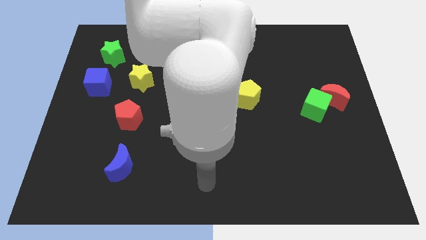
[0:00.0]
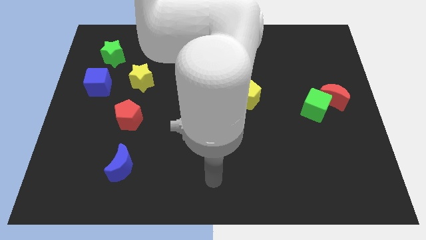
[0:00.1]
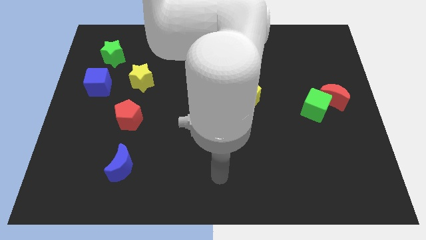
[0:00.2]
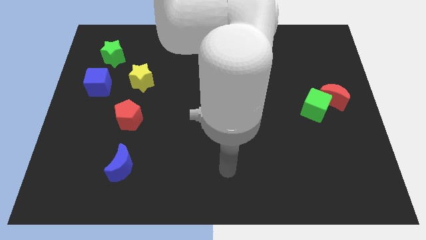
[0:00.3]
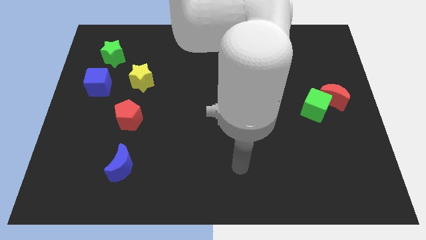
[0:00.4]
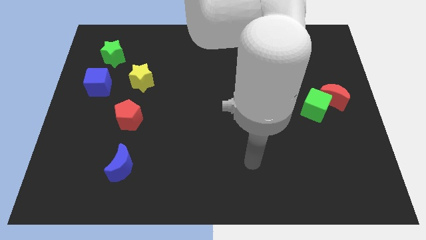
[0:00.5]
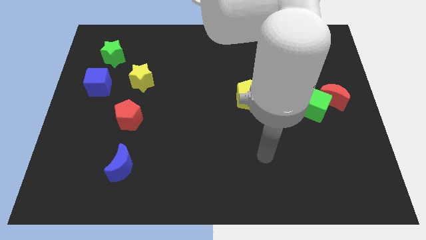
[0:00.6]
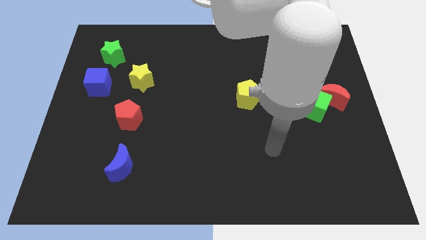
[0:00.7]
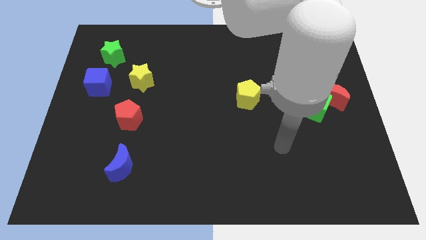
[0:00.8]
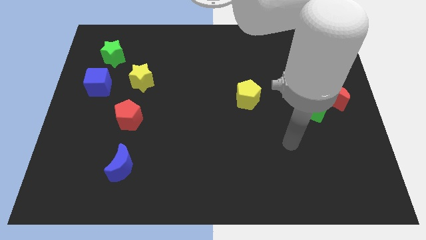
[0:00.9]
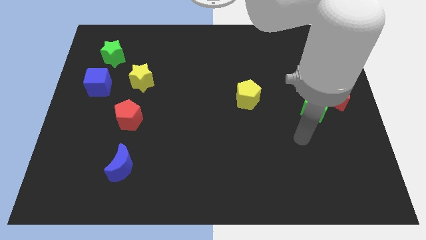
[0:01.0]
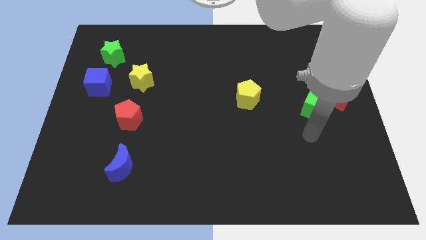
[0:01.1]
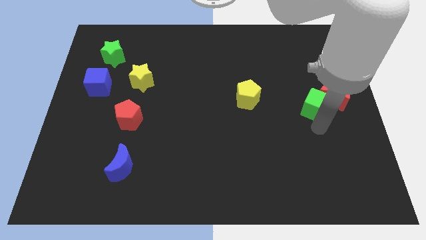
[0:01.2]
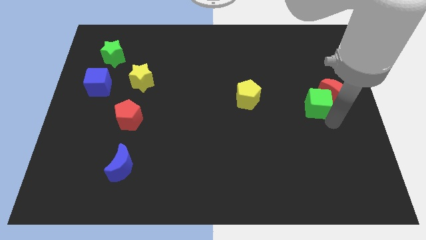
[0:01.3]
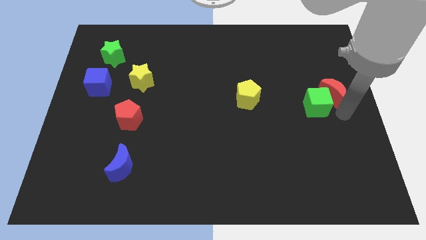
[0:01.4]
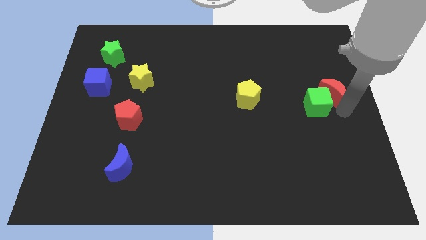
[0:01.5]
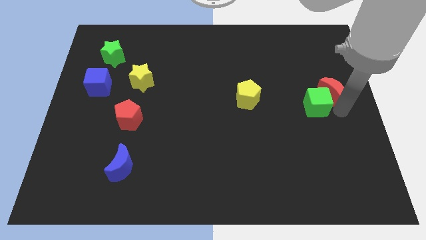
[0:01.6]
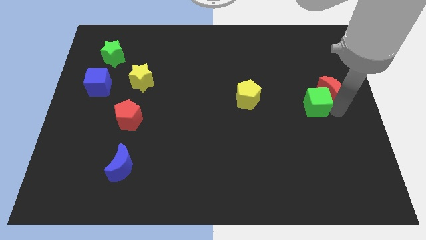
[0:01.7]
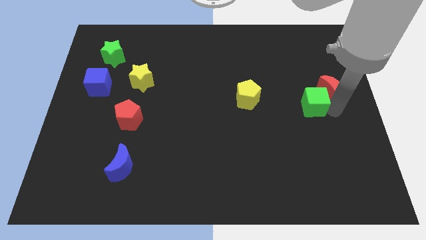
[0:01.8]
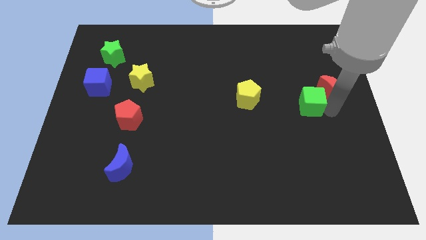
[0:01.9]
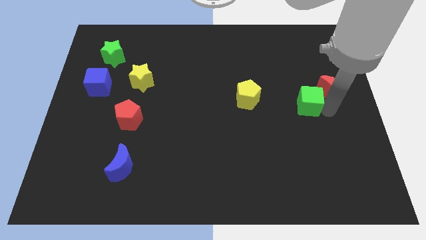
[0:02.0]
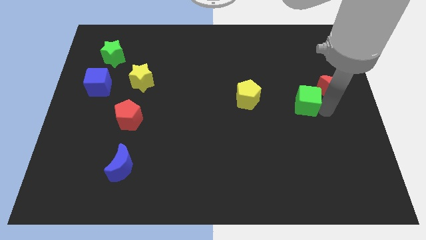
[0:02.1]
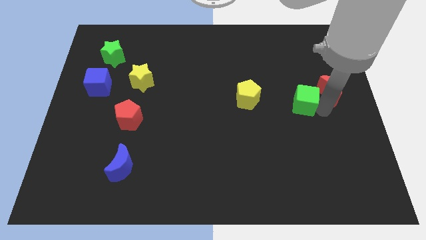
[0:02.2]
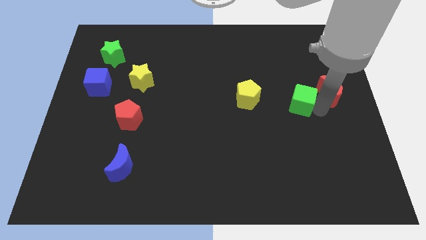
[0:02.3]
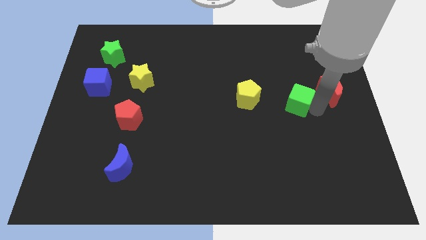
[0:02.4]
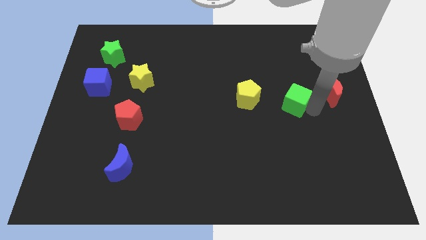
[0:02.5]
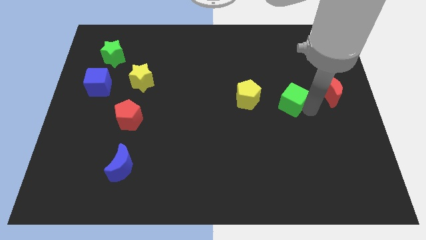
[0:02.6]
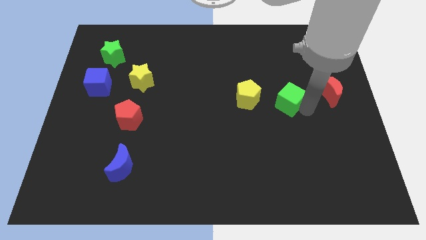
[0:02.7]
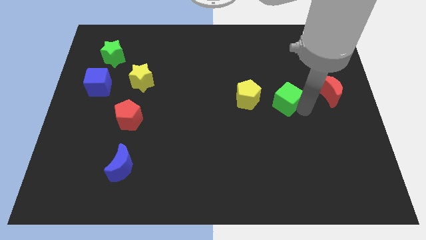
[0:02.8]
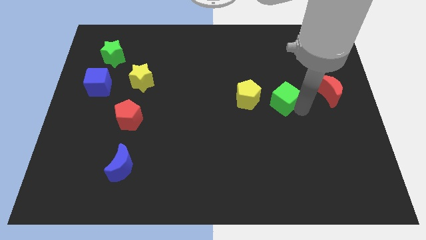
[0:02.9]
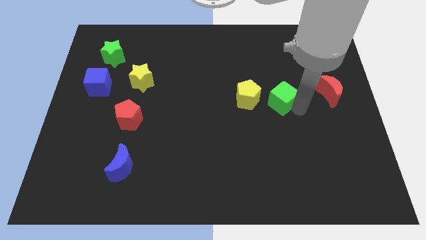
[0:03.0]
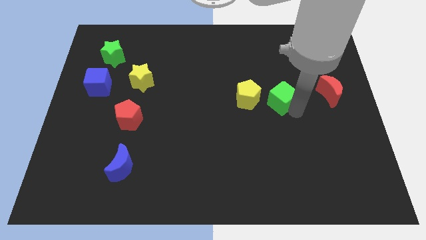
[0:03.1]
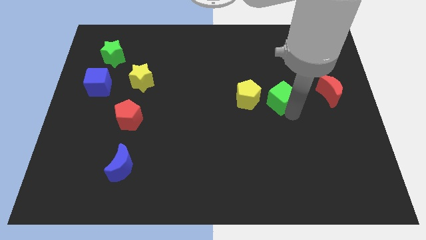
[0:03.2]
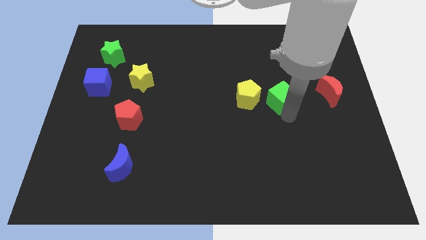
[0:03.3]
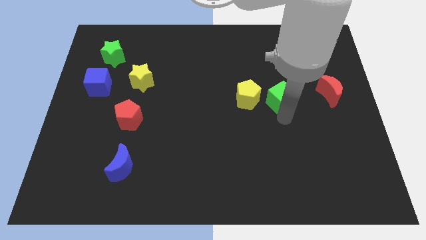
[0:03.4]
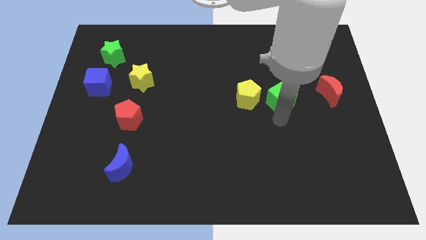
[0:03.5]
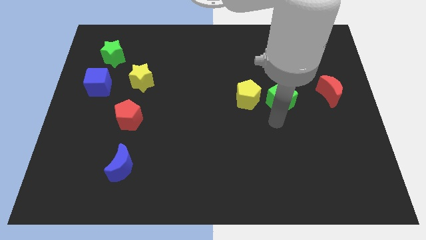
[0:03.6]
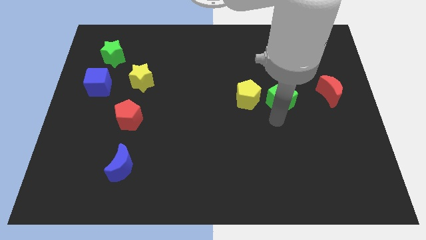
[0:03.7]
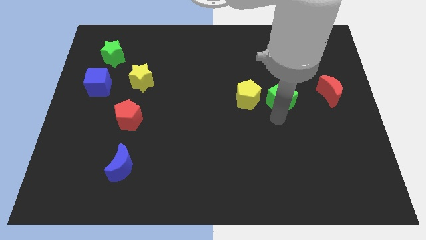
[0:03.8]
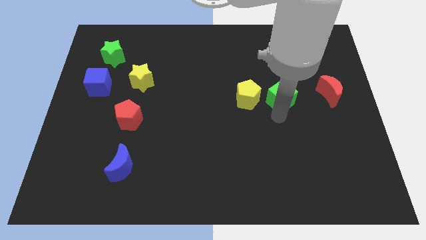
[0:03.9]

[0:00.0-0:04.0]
slightly move the green cube upwards and left

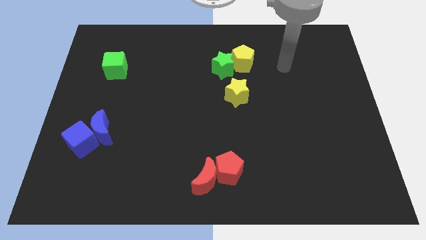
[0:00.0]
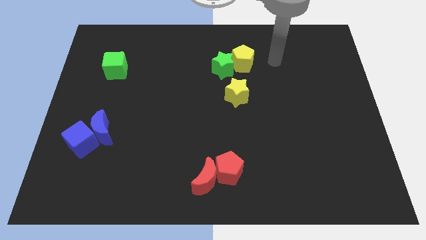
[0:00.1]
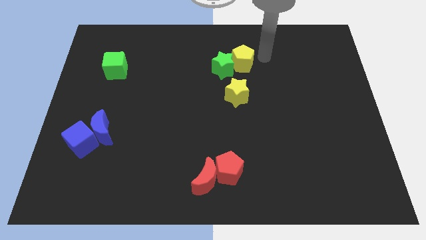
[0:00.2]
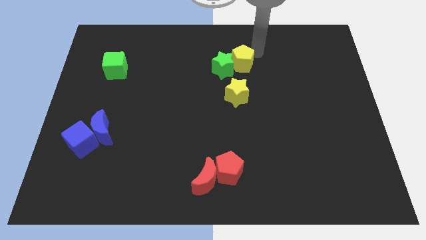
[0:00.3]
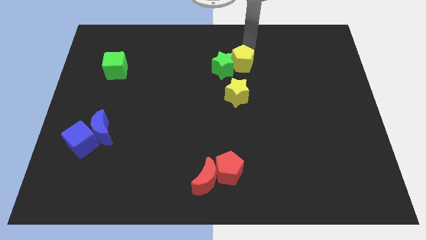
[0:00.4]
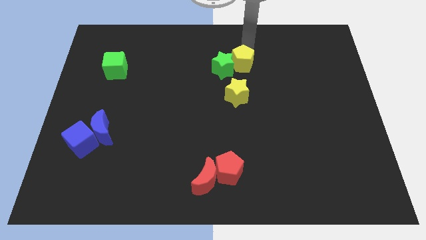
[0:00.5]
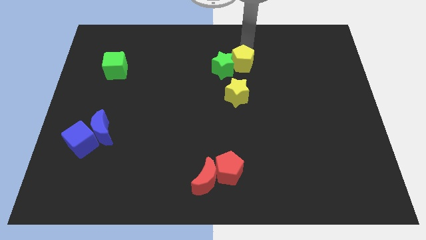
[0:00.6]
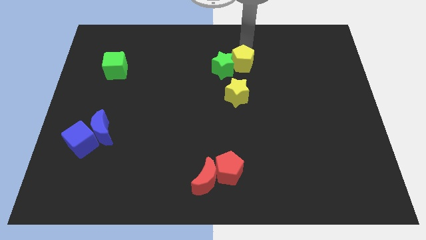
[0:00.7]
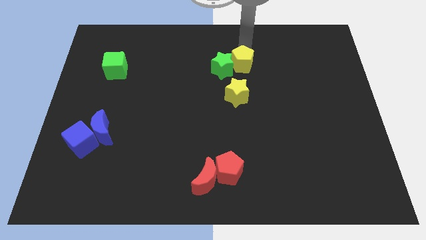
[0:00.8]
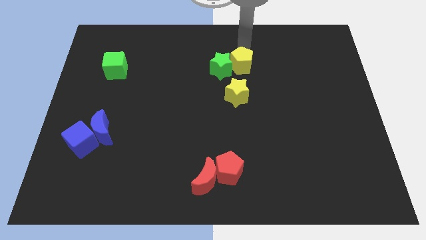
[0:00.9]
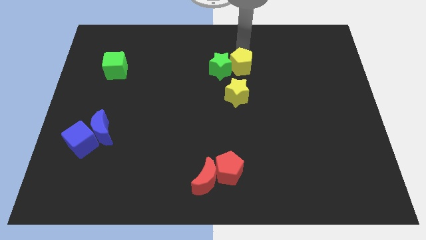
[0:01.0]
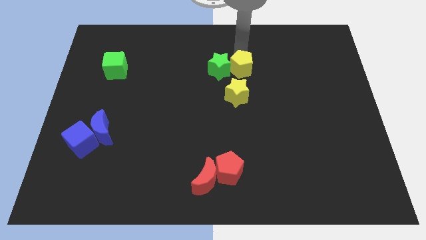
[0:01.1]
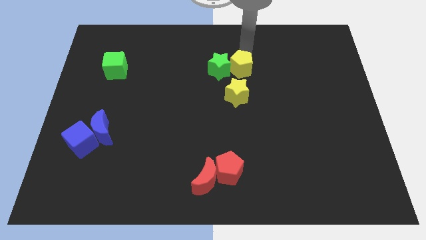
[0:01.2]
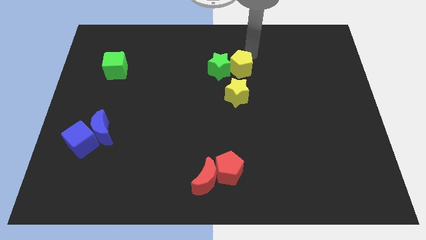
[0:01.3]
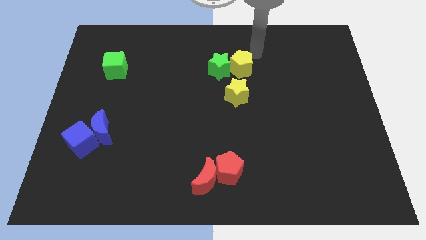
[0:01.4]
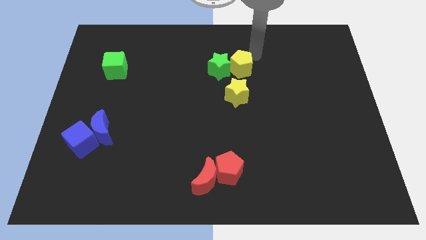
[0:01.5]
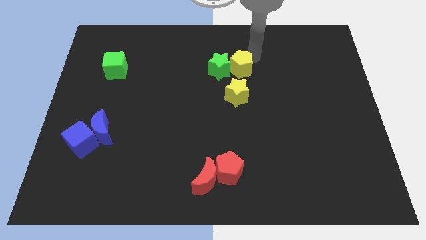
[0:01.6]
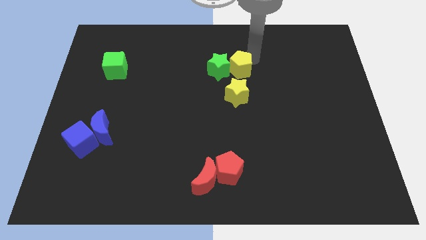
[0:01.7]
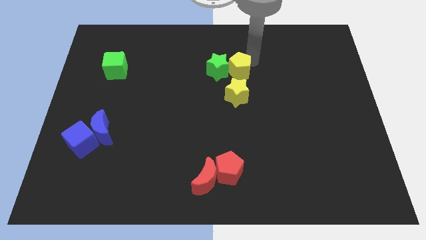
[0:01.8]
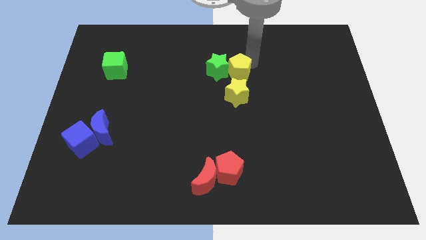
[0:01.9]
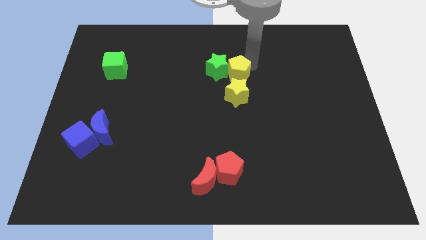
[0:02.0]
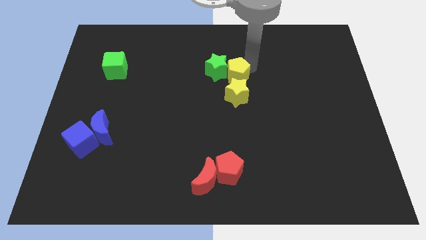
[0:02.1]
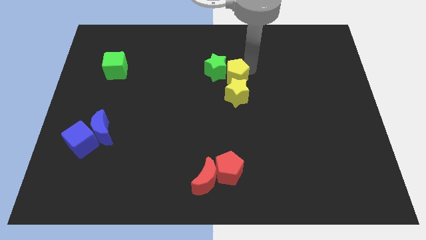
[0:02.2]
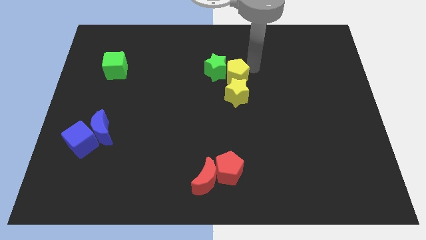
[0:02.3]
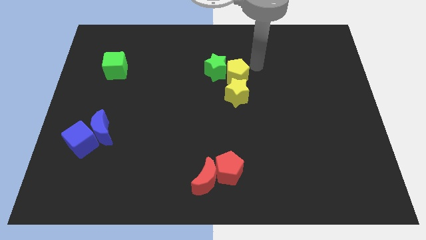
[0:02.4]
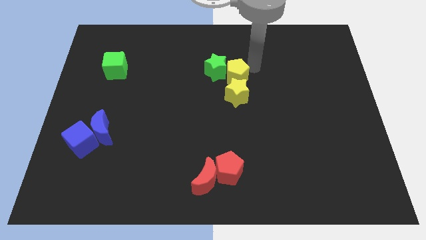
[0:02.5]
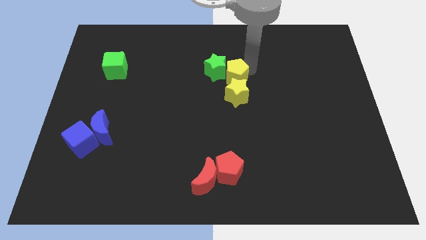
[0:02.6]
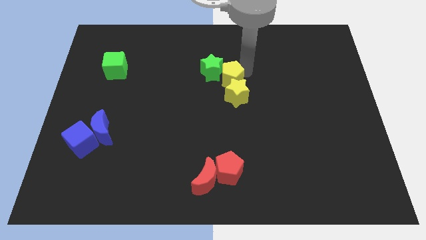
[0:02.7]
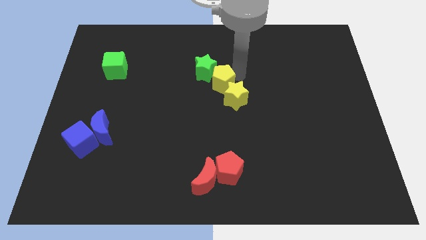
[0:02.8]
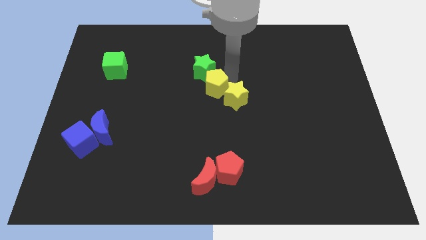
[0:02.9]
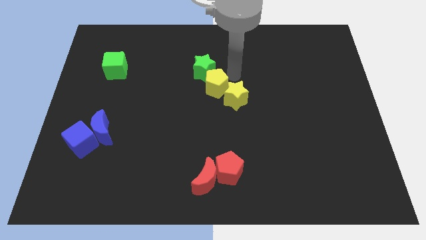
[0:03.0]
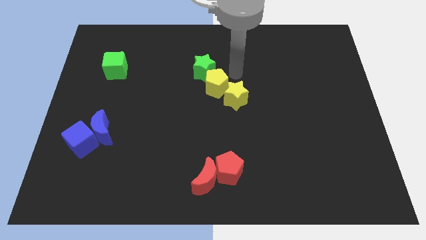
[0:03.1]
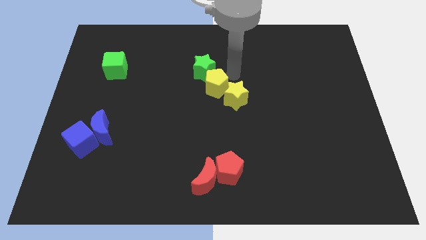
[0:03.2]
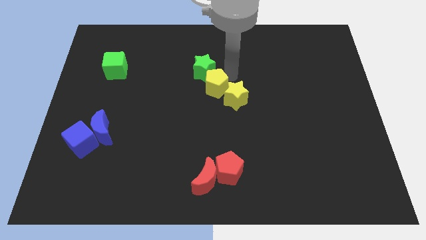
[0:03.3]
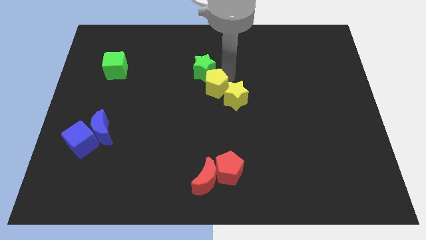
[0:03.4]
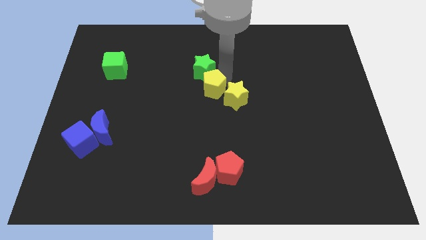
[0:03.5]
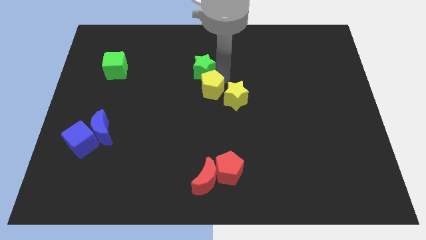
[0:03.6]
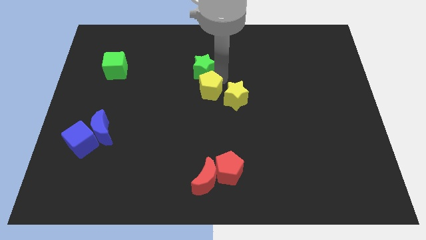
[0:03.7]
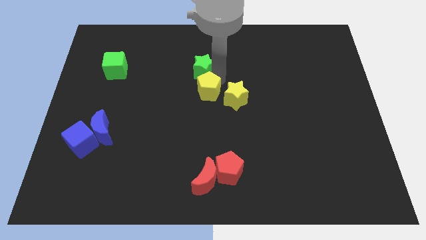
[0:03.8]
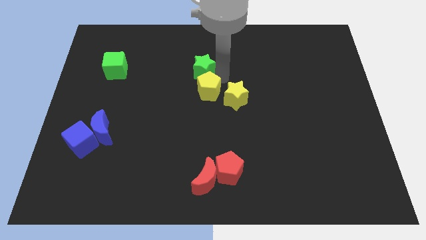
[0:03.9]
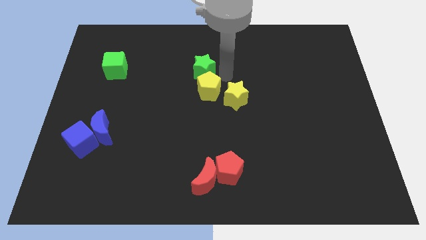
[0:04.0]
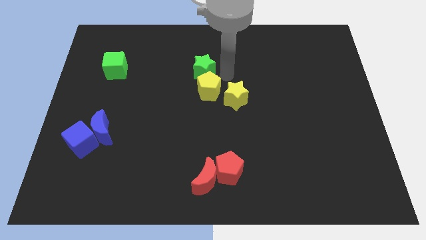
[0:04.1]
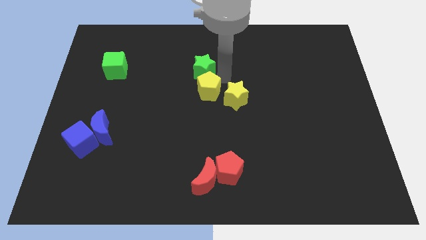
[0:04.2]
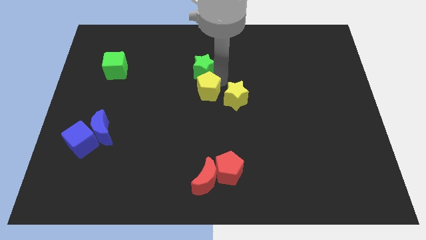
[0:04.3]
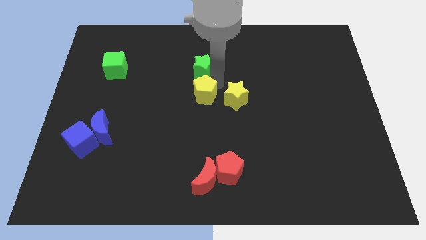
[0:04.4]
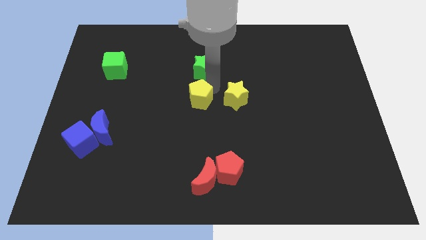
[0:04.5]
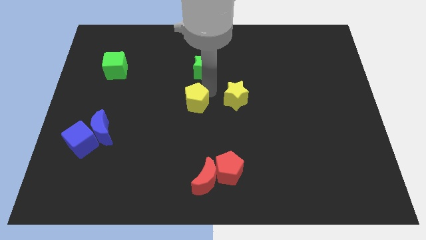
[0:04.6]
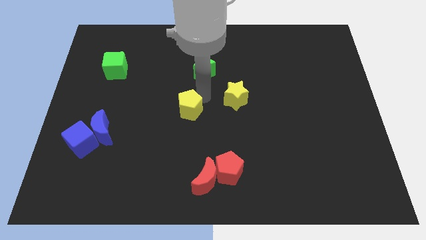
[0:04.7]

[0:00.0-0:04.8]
slide the yellow pentagon downwards and left diagonally
